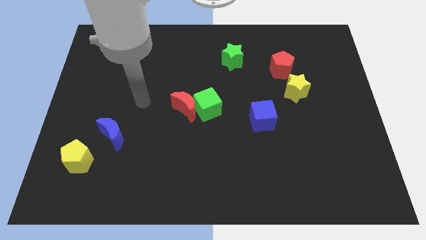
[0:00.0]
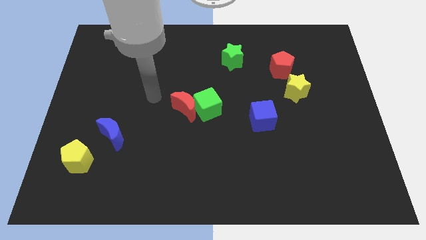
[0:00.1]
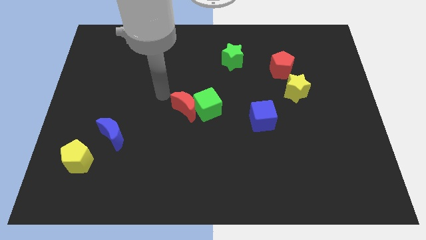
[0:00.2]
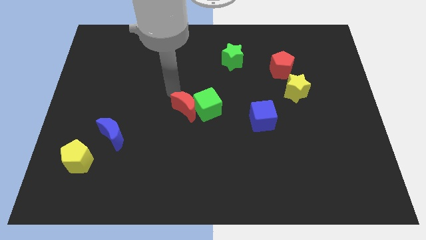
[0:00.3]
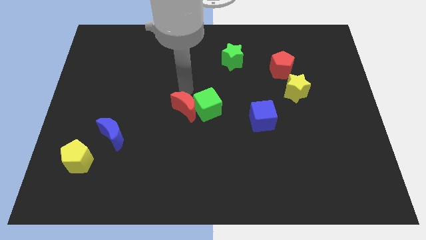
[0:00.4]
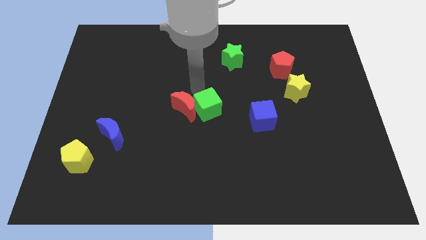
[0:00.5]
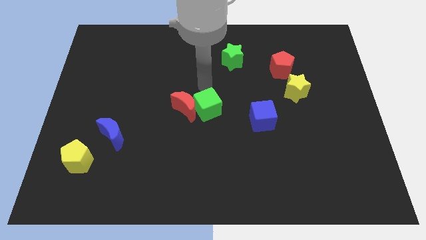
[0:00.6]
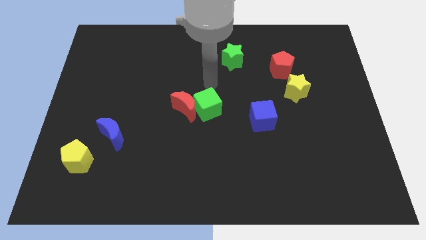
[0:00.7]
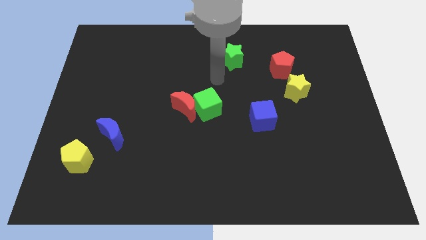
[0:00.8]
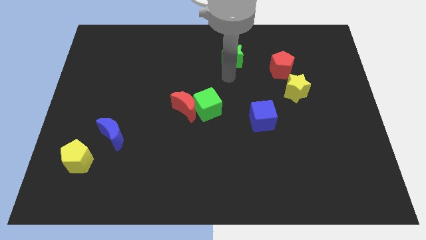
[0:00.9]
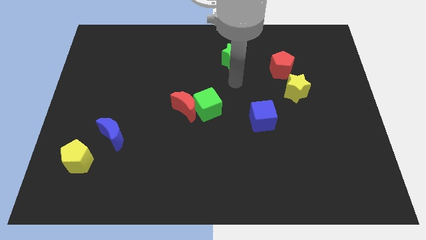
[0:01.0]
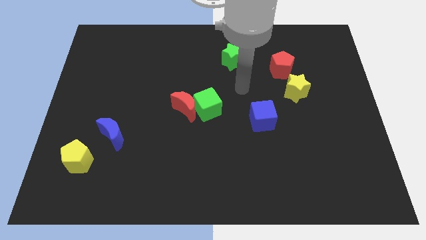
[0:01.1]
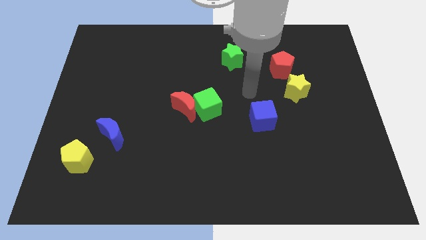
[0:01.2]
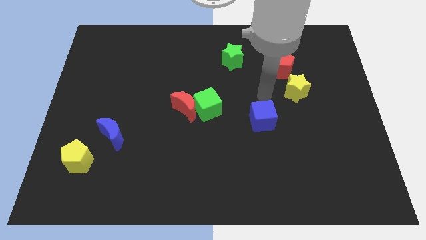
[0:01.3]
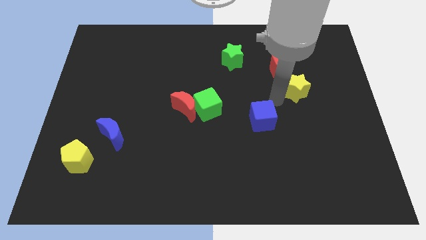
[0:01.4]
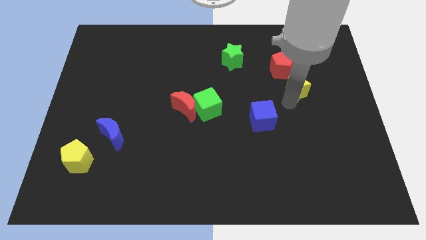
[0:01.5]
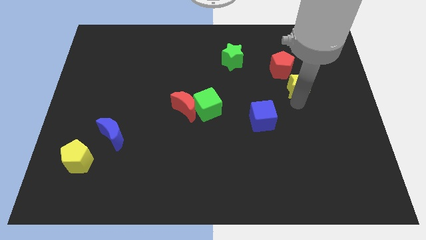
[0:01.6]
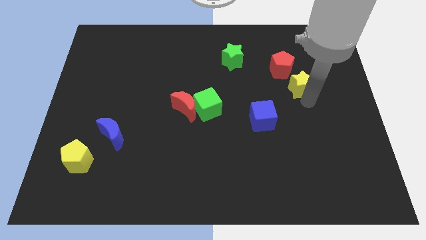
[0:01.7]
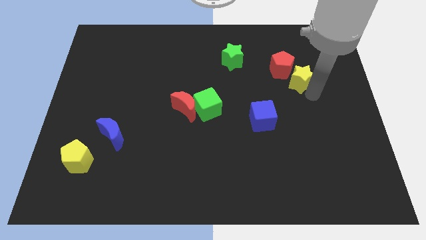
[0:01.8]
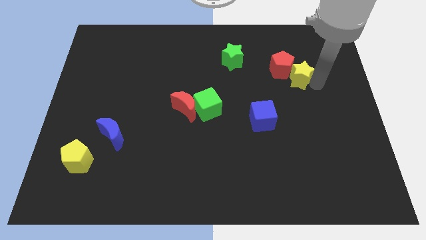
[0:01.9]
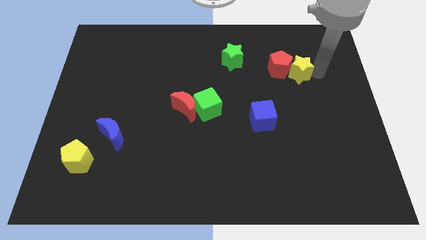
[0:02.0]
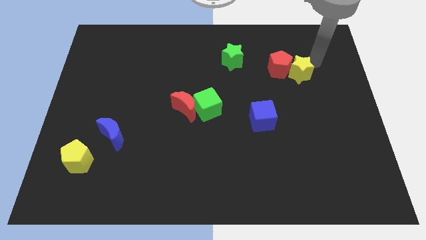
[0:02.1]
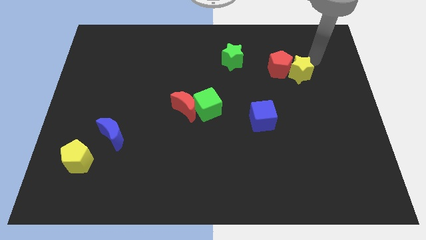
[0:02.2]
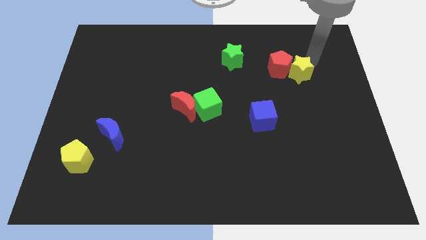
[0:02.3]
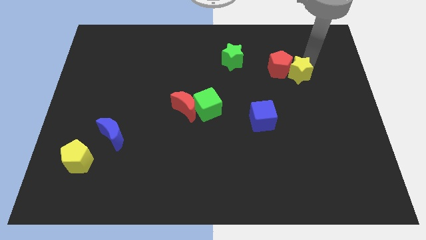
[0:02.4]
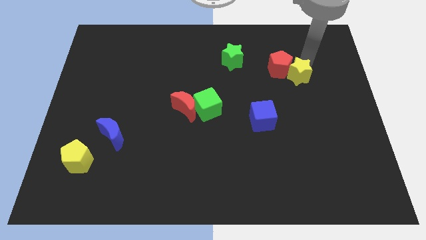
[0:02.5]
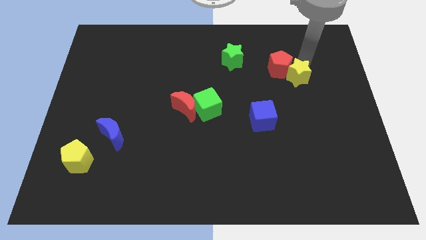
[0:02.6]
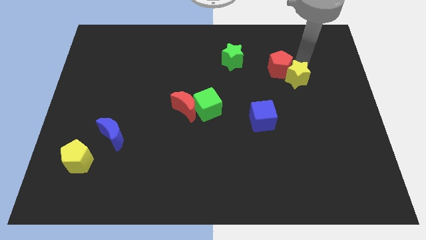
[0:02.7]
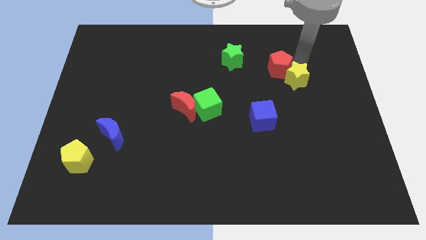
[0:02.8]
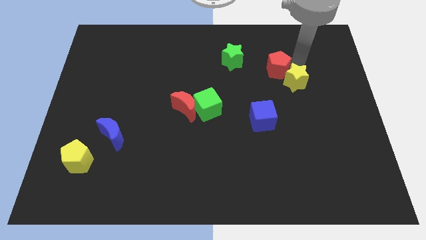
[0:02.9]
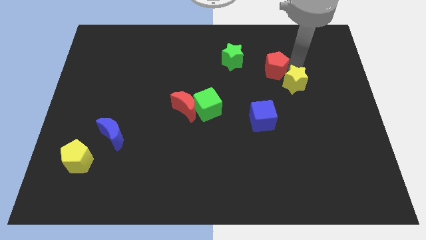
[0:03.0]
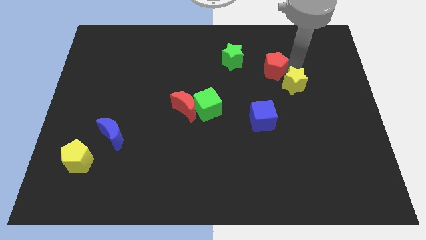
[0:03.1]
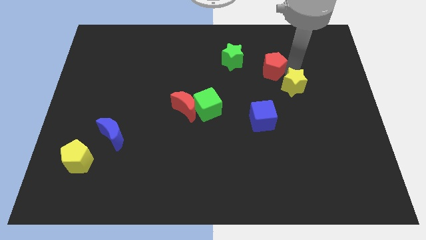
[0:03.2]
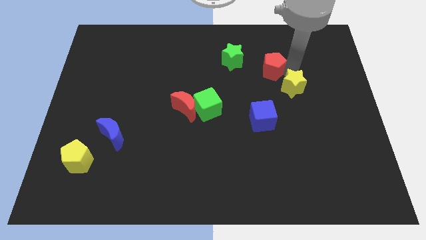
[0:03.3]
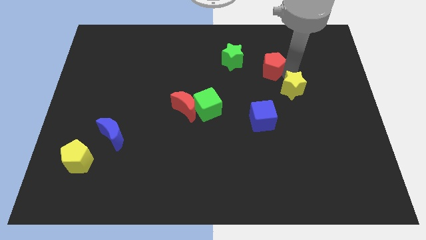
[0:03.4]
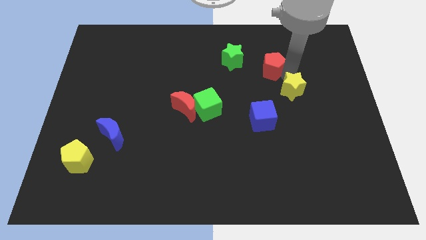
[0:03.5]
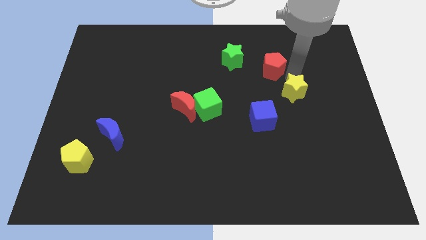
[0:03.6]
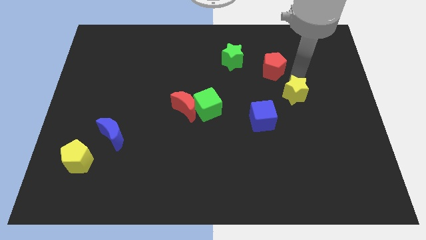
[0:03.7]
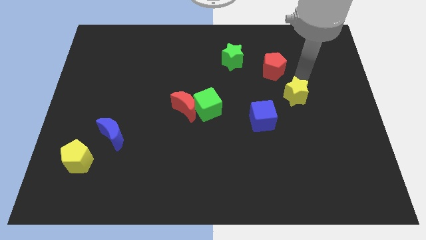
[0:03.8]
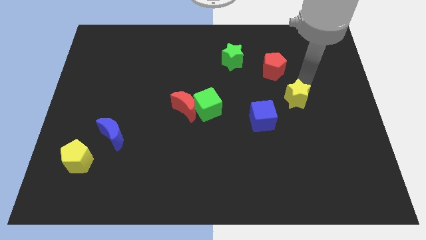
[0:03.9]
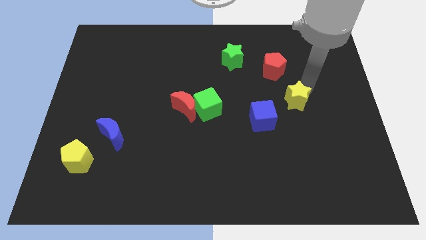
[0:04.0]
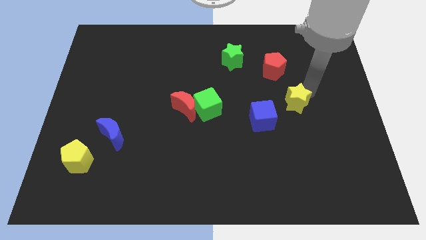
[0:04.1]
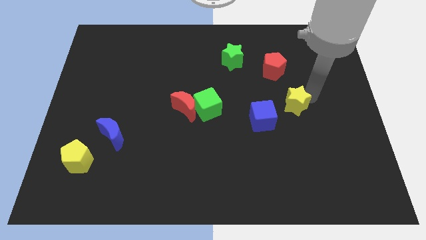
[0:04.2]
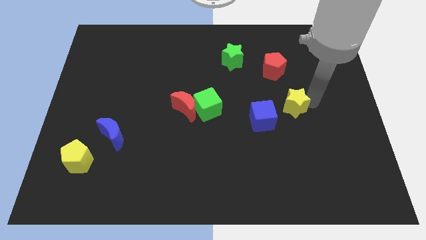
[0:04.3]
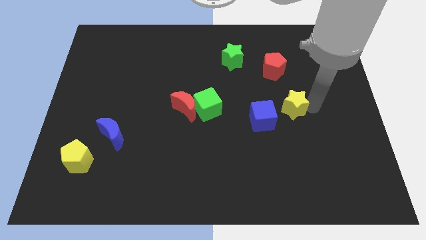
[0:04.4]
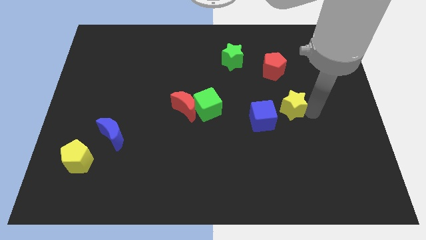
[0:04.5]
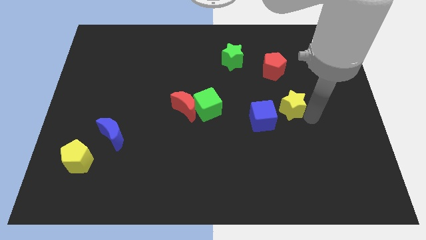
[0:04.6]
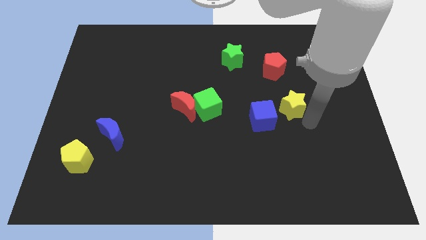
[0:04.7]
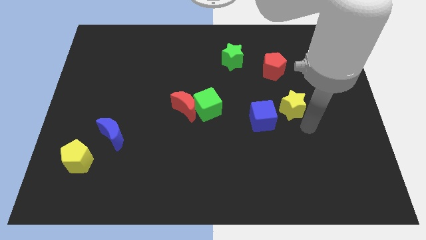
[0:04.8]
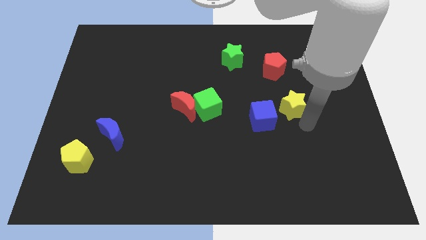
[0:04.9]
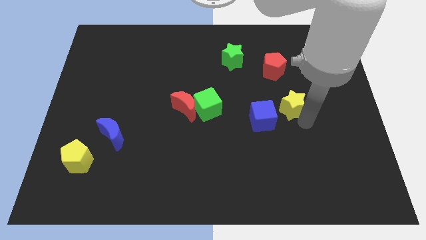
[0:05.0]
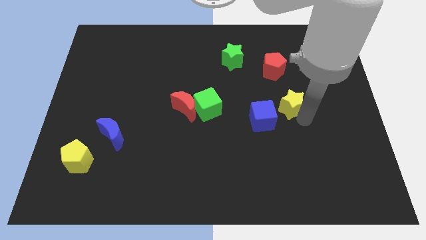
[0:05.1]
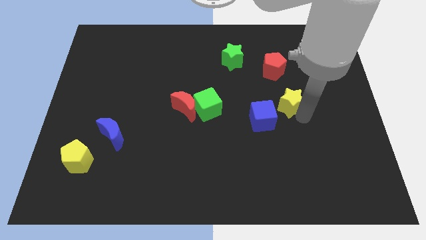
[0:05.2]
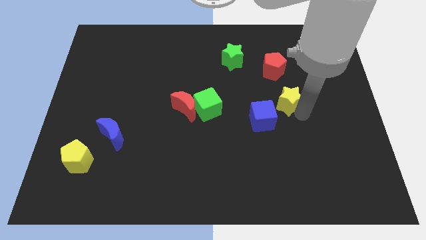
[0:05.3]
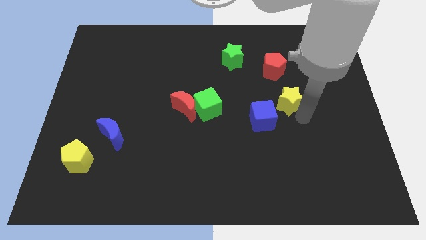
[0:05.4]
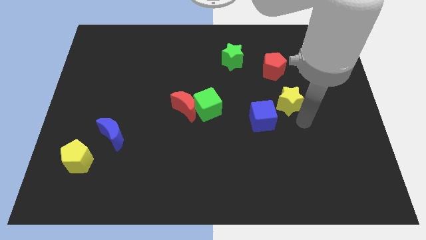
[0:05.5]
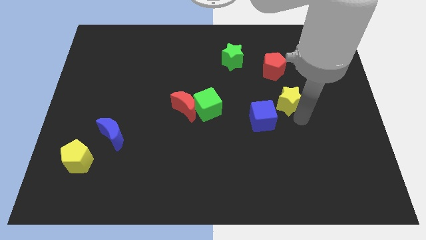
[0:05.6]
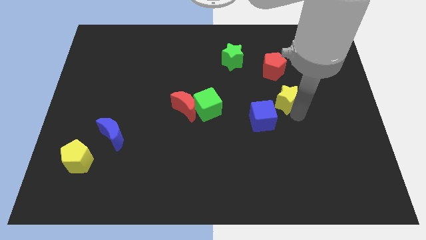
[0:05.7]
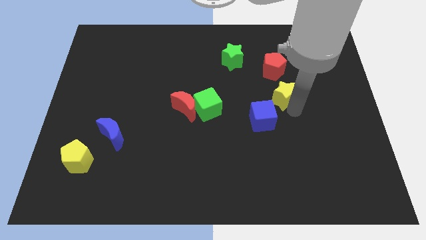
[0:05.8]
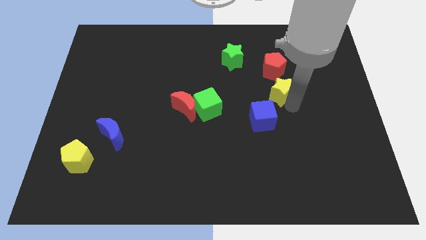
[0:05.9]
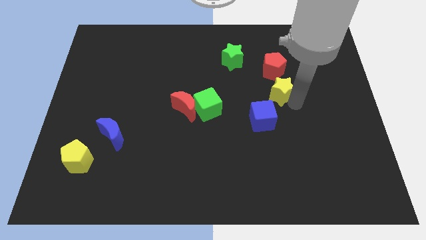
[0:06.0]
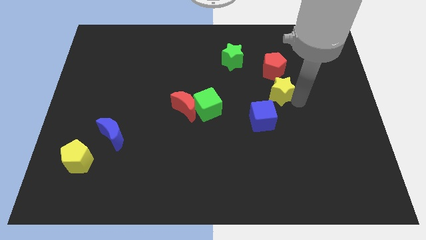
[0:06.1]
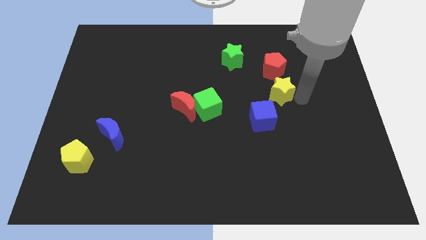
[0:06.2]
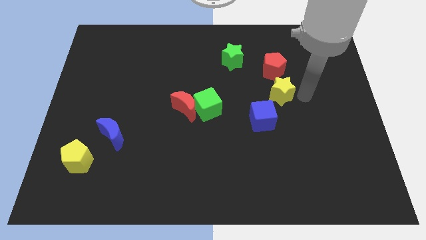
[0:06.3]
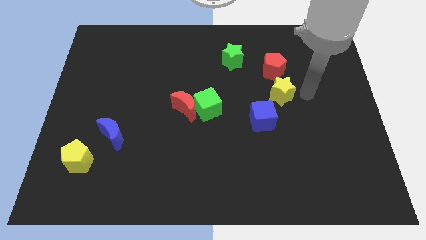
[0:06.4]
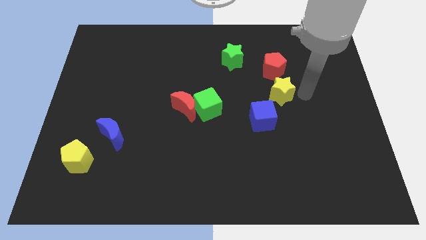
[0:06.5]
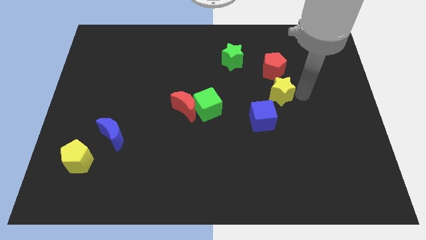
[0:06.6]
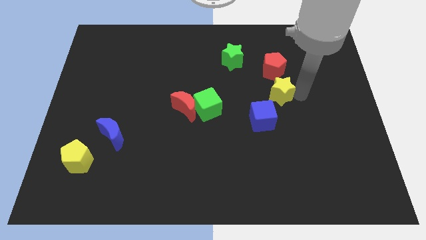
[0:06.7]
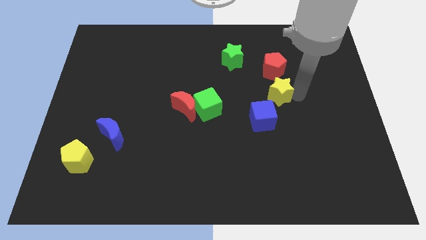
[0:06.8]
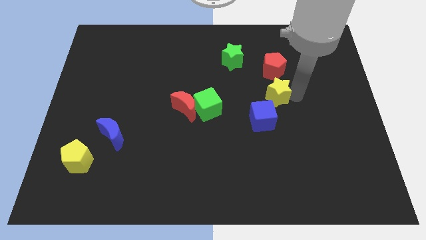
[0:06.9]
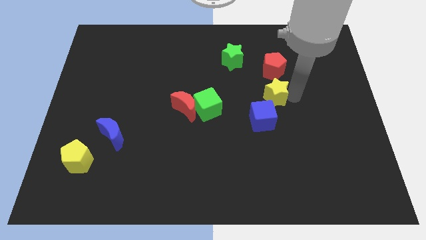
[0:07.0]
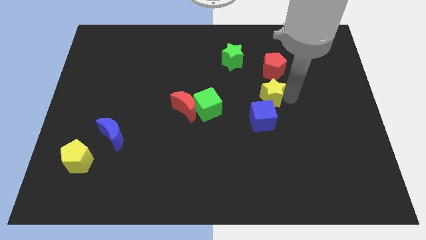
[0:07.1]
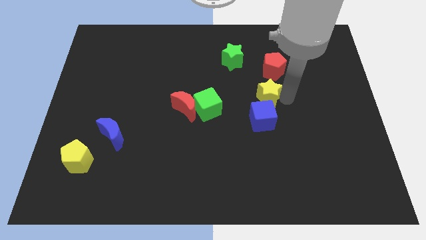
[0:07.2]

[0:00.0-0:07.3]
slightly slide the yellow star to the left

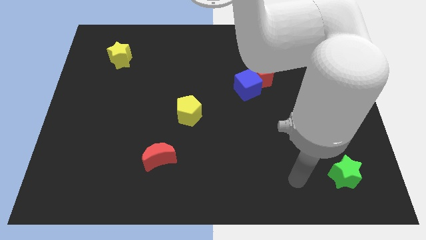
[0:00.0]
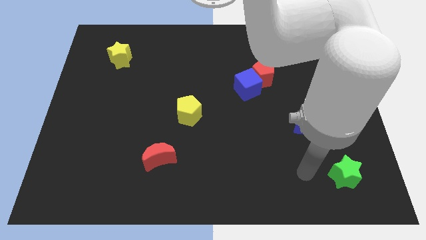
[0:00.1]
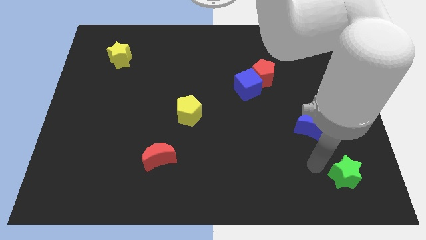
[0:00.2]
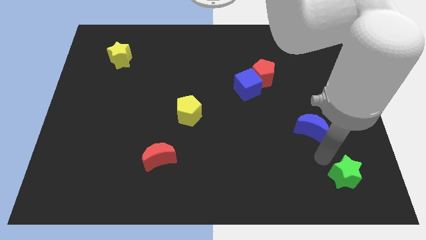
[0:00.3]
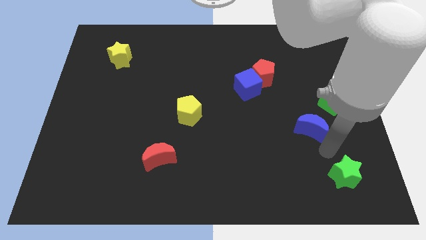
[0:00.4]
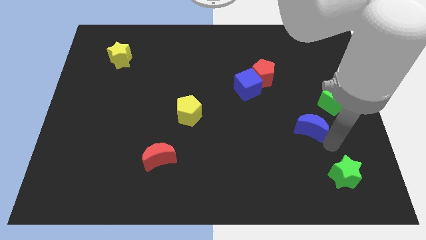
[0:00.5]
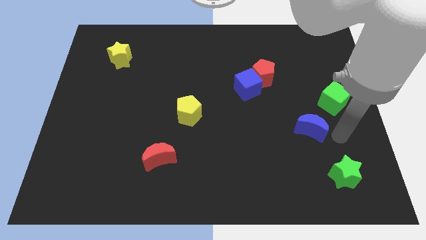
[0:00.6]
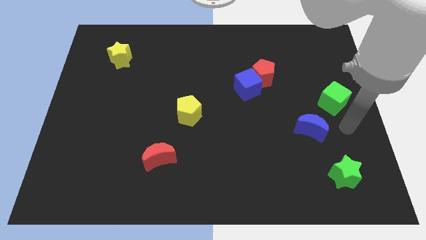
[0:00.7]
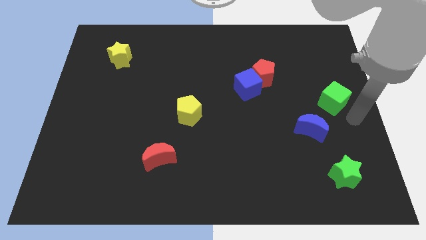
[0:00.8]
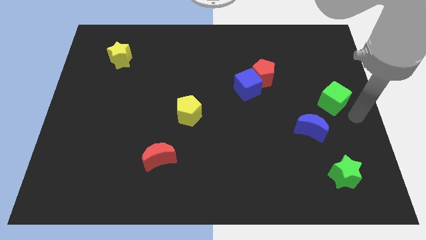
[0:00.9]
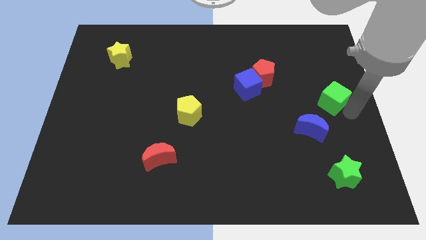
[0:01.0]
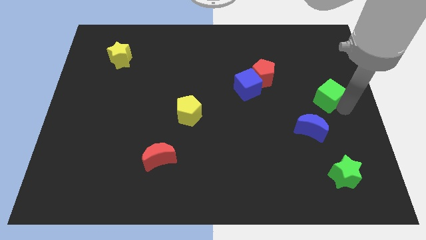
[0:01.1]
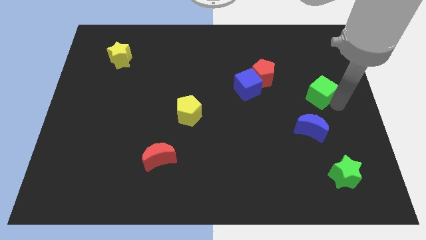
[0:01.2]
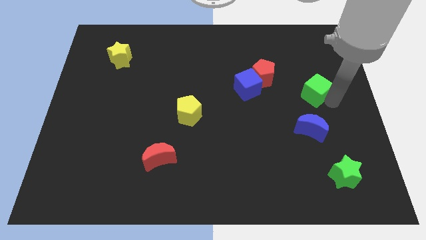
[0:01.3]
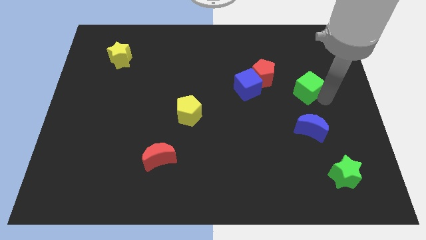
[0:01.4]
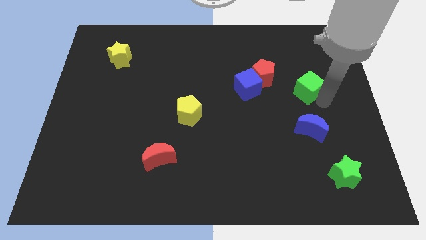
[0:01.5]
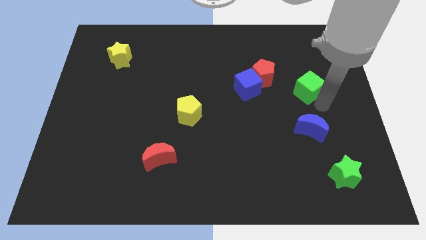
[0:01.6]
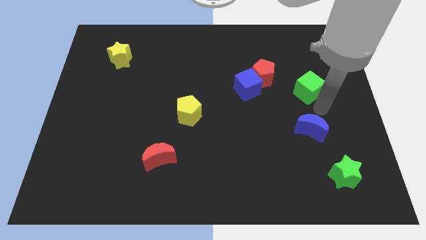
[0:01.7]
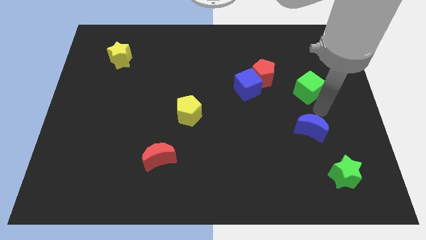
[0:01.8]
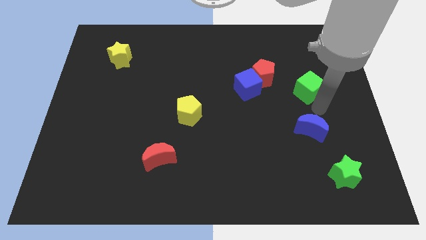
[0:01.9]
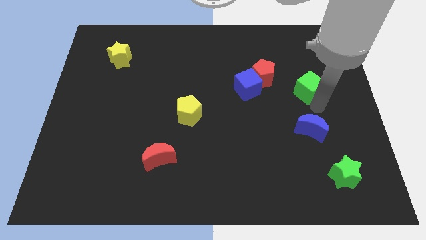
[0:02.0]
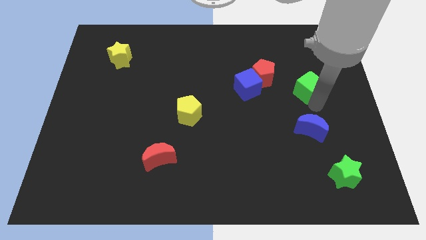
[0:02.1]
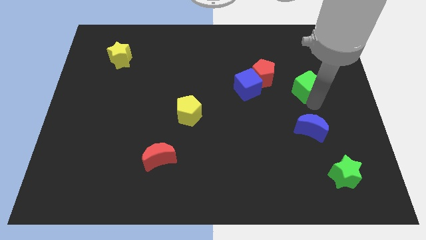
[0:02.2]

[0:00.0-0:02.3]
slide the green cube up and left a little bit
